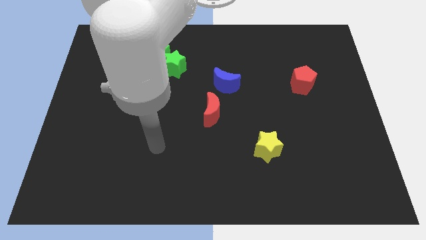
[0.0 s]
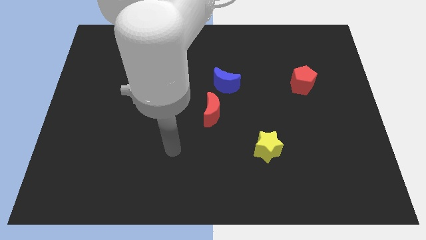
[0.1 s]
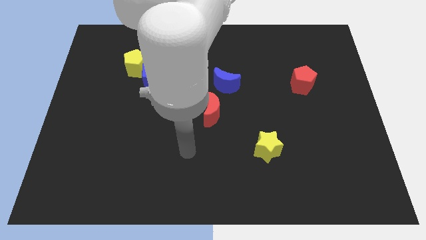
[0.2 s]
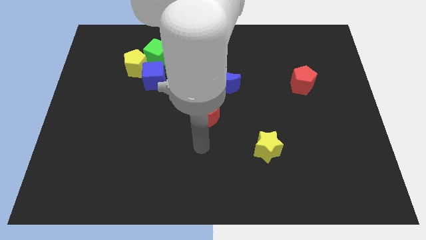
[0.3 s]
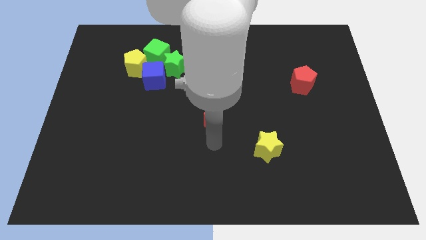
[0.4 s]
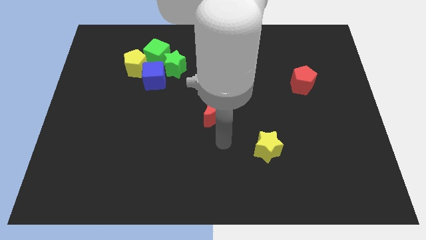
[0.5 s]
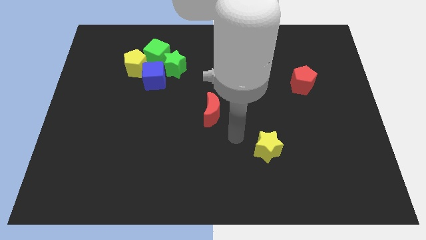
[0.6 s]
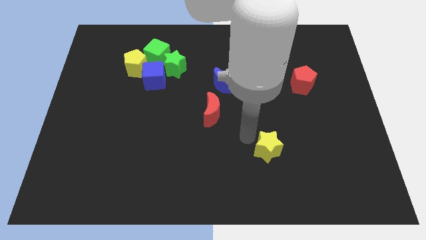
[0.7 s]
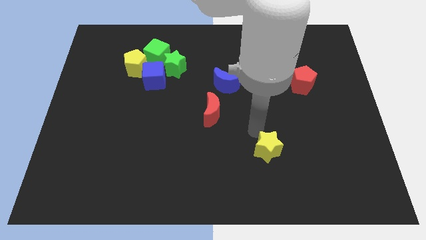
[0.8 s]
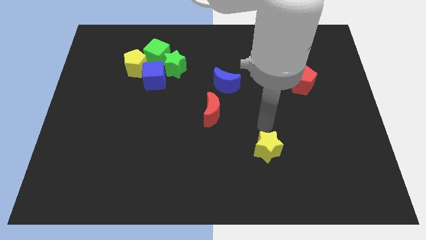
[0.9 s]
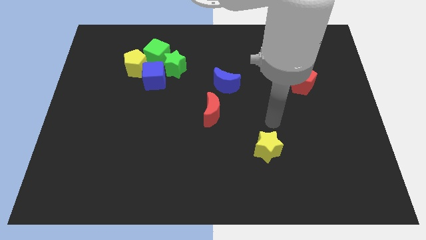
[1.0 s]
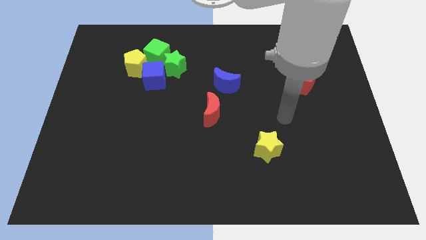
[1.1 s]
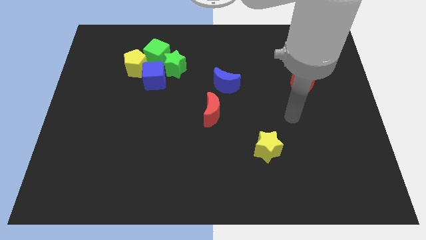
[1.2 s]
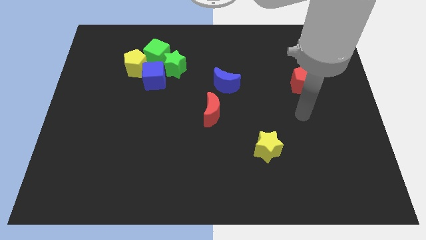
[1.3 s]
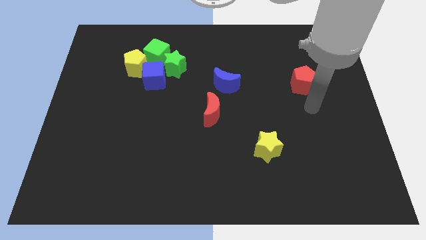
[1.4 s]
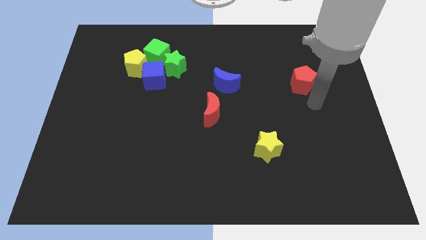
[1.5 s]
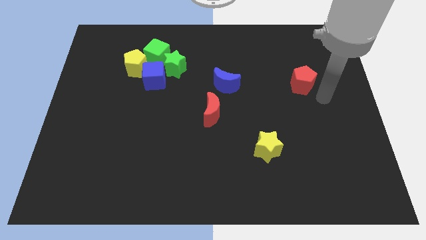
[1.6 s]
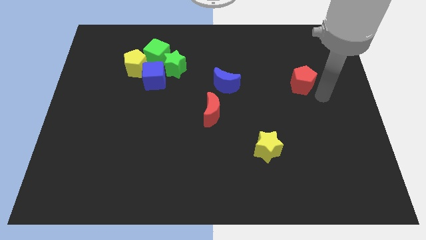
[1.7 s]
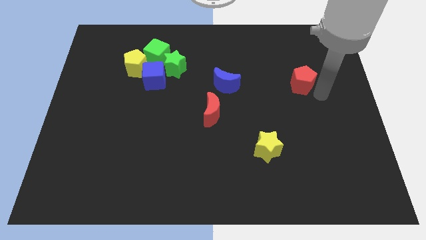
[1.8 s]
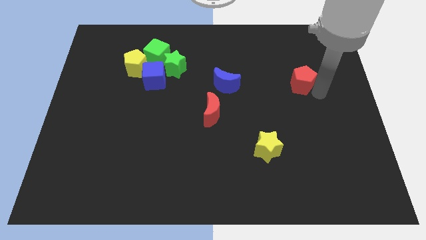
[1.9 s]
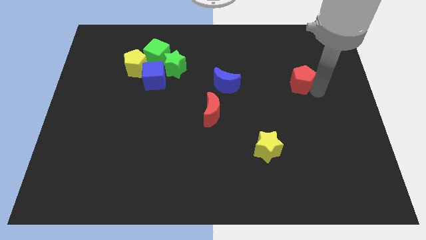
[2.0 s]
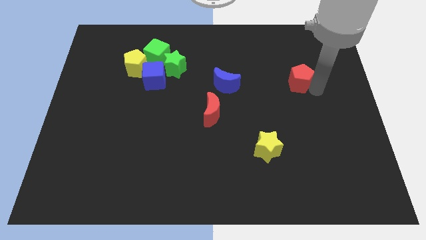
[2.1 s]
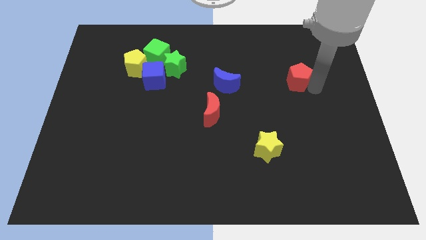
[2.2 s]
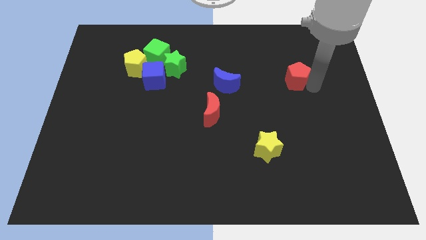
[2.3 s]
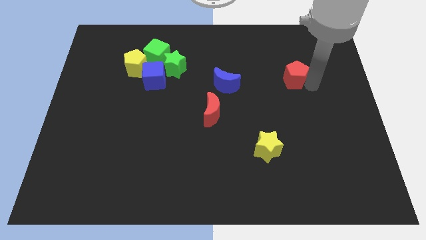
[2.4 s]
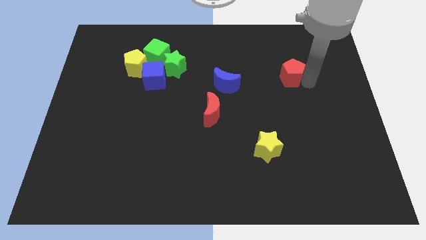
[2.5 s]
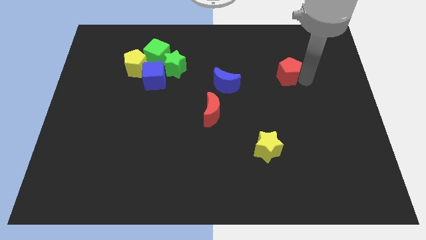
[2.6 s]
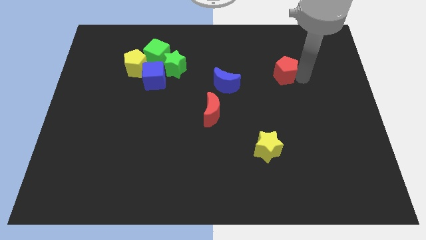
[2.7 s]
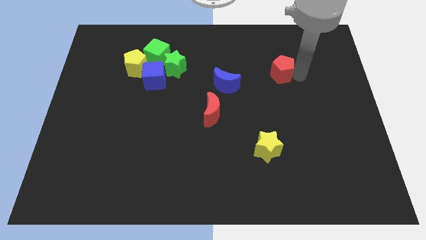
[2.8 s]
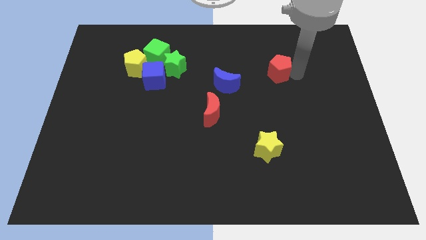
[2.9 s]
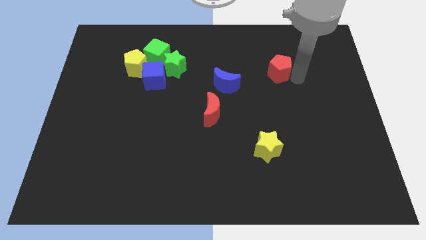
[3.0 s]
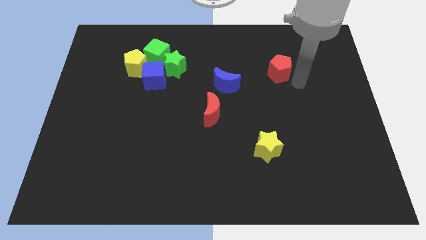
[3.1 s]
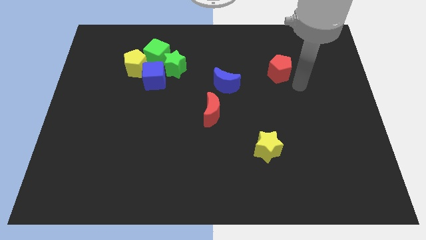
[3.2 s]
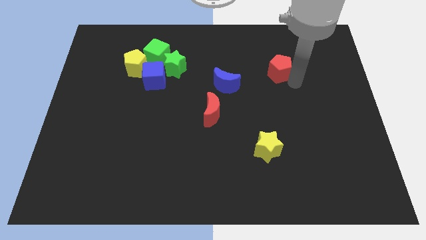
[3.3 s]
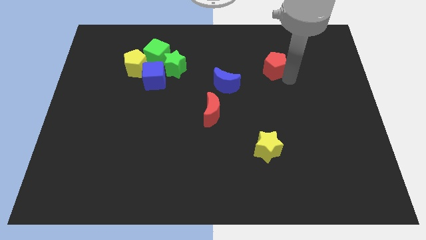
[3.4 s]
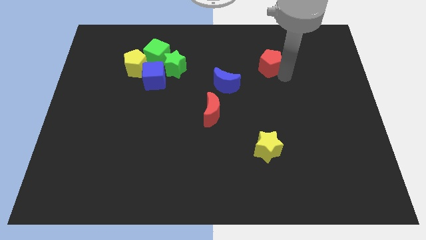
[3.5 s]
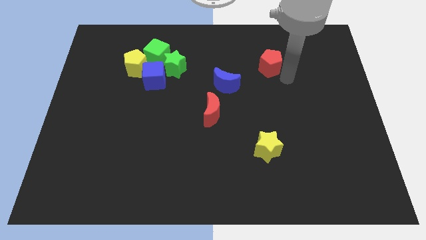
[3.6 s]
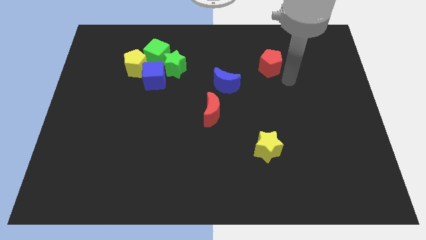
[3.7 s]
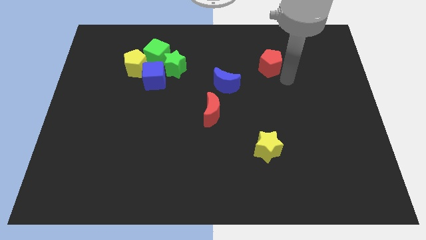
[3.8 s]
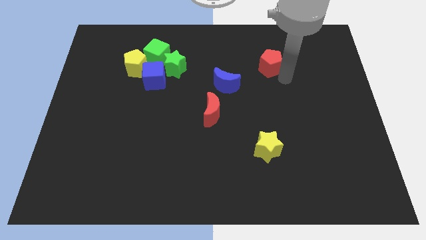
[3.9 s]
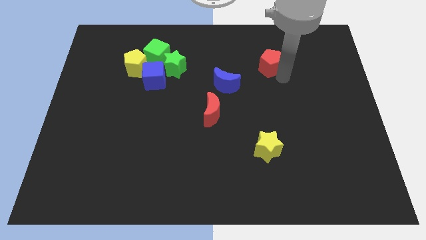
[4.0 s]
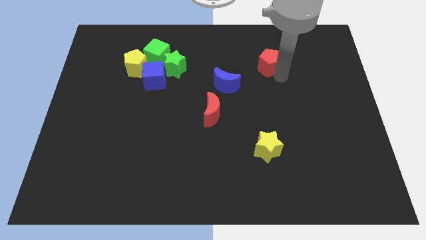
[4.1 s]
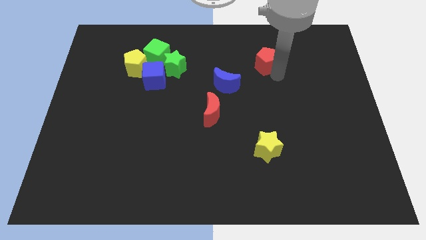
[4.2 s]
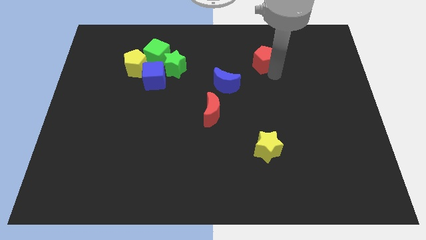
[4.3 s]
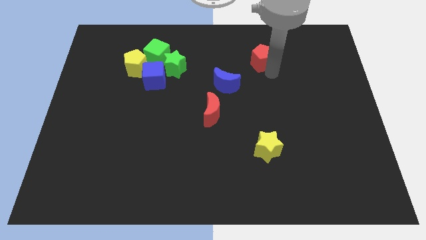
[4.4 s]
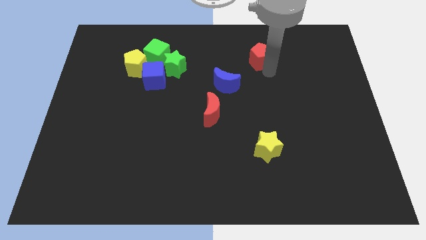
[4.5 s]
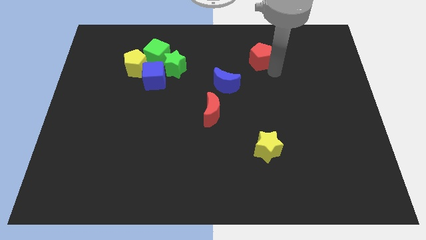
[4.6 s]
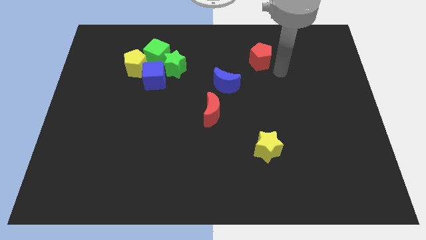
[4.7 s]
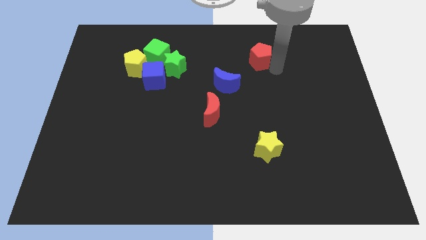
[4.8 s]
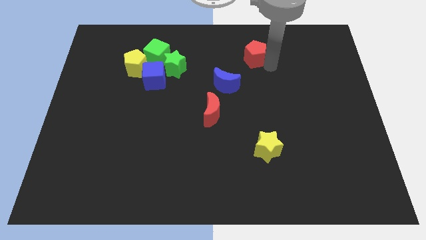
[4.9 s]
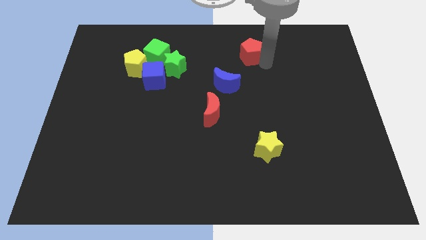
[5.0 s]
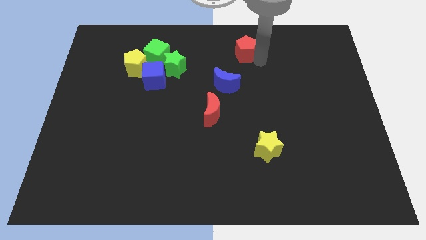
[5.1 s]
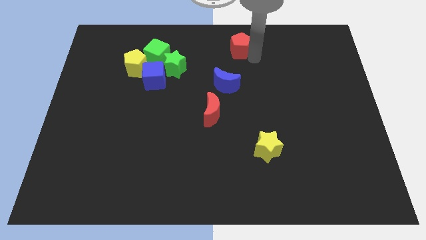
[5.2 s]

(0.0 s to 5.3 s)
move the red pentagon to the top side
